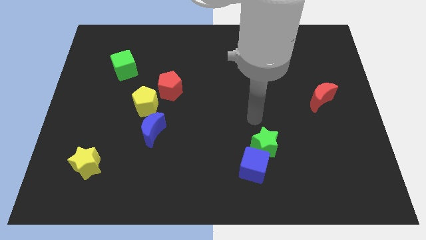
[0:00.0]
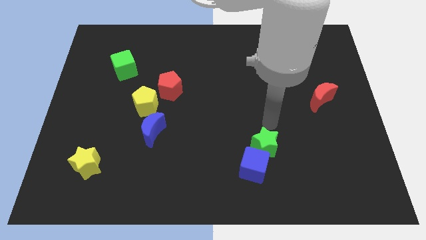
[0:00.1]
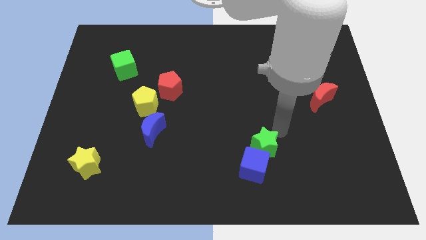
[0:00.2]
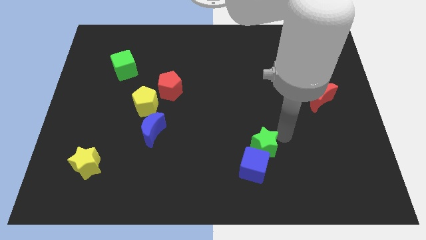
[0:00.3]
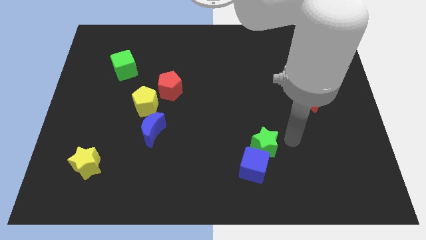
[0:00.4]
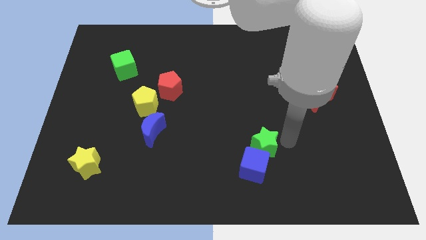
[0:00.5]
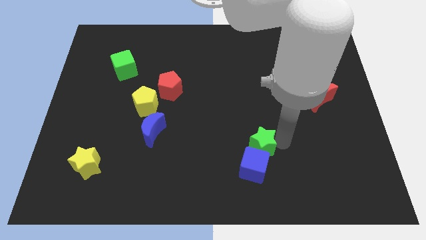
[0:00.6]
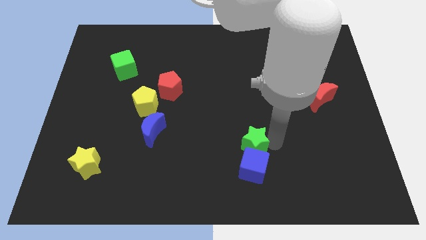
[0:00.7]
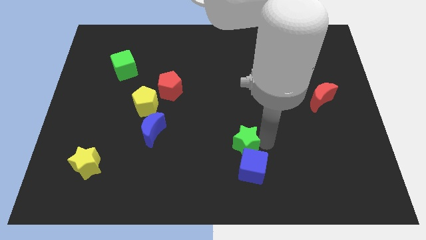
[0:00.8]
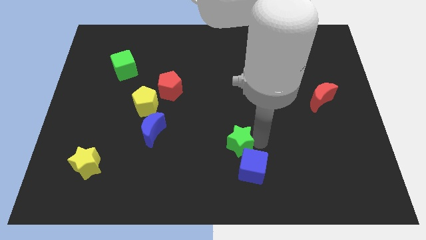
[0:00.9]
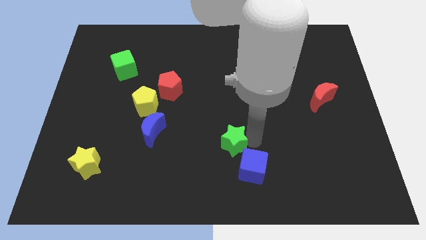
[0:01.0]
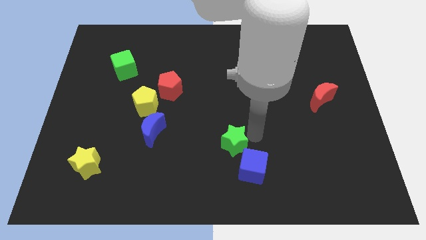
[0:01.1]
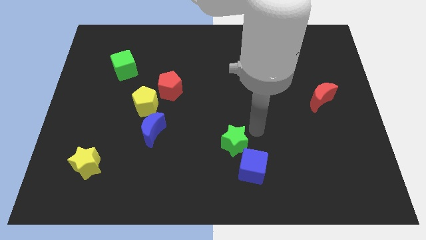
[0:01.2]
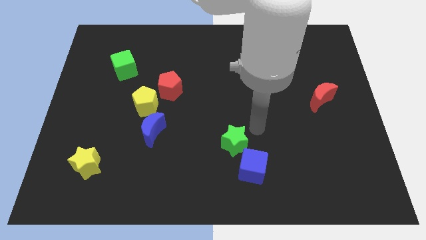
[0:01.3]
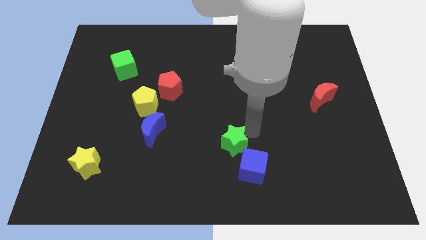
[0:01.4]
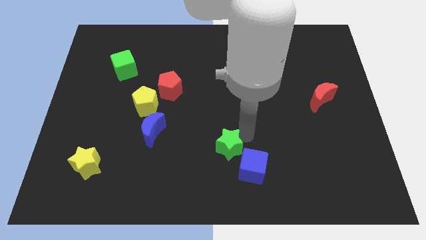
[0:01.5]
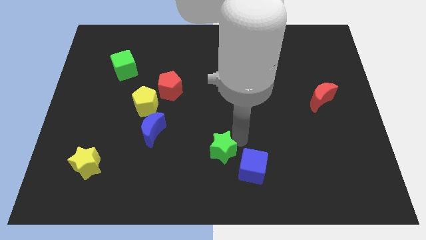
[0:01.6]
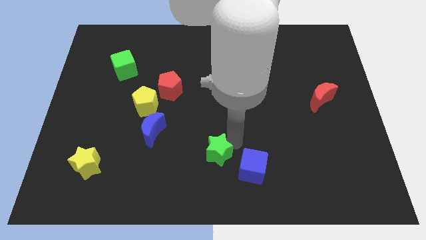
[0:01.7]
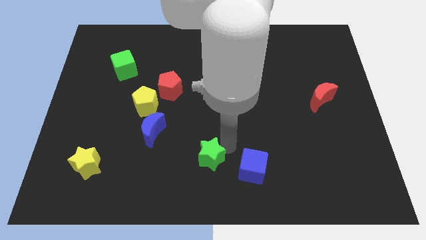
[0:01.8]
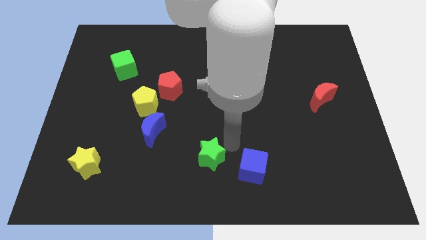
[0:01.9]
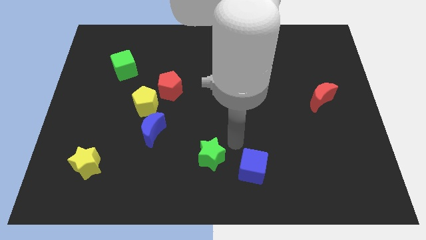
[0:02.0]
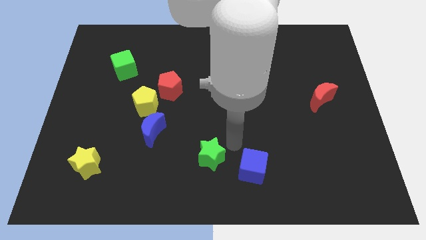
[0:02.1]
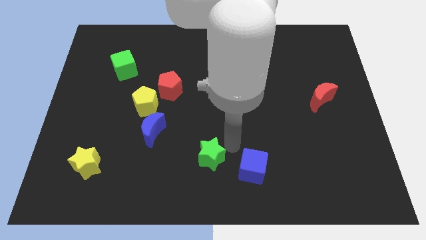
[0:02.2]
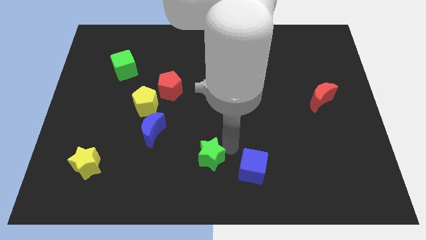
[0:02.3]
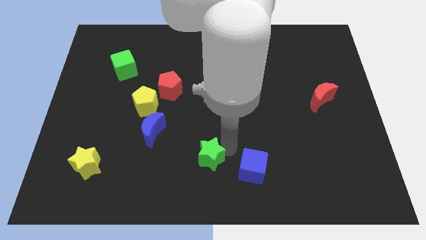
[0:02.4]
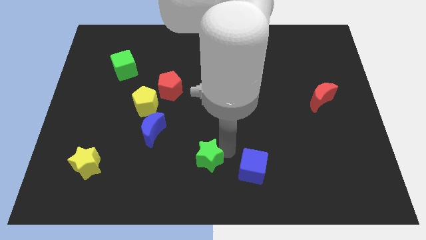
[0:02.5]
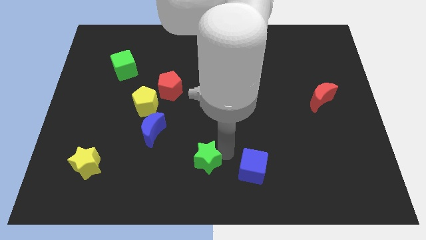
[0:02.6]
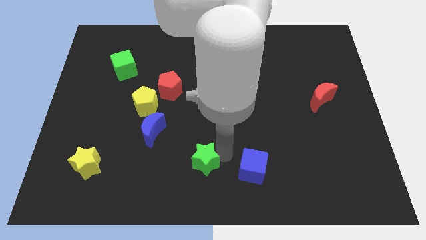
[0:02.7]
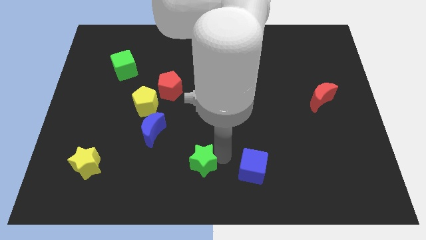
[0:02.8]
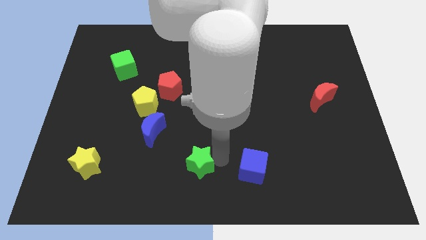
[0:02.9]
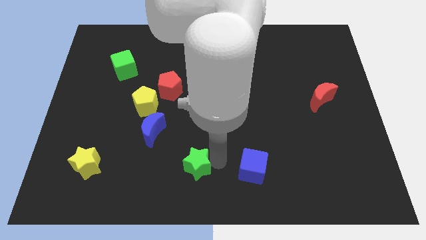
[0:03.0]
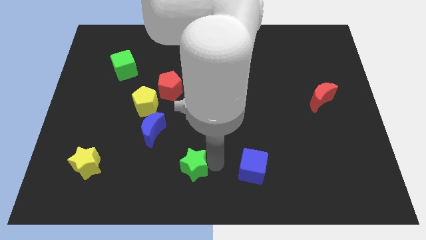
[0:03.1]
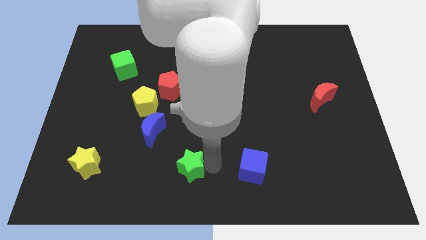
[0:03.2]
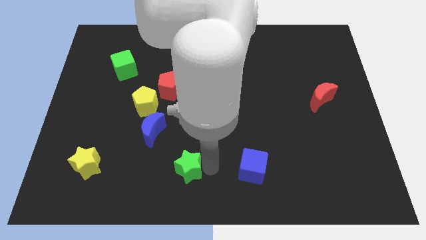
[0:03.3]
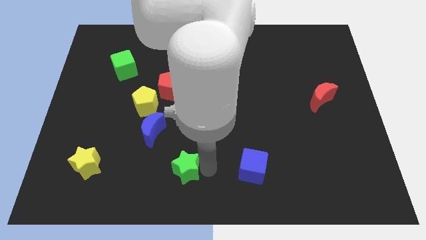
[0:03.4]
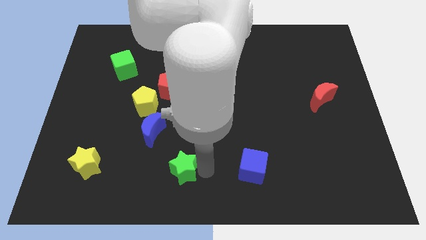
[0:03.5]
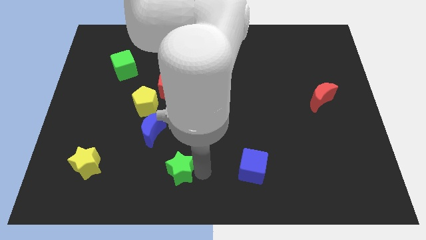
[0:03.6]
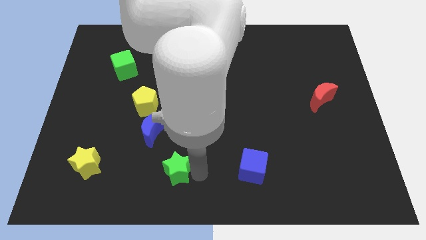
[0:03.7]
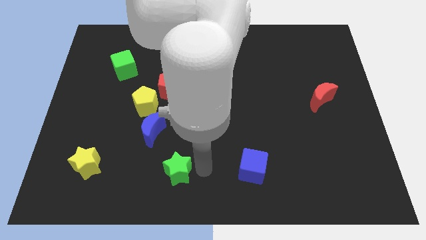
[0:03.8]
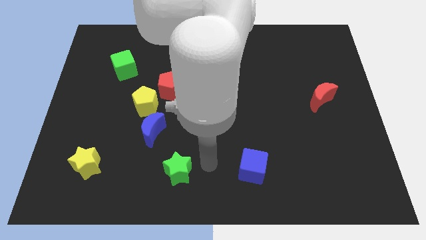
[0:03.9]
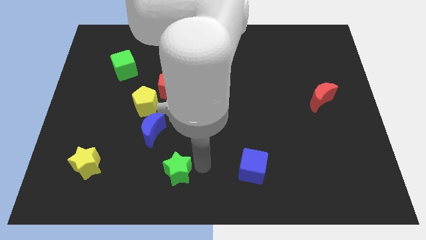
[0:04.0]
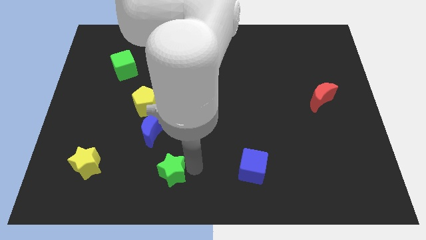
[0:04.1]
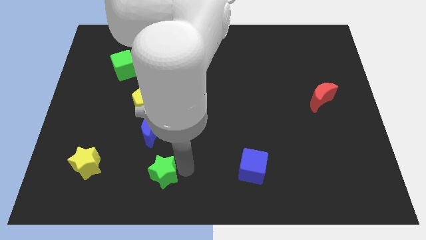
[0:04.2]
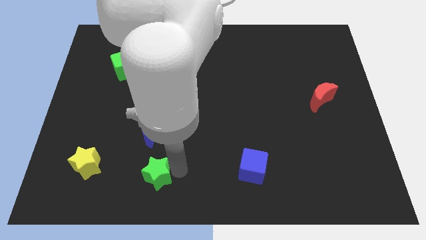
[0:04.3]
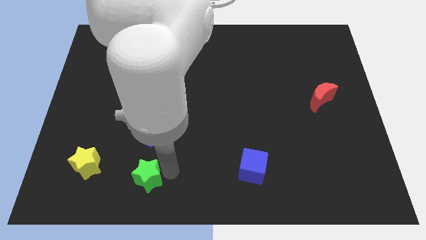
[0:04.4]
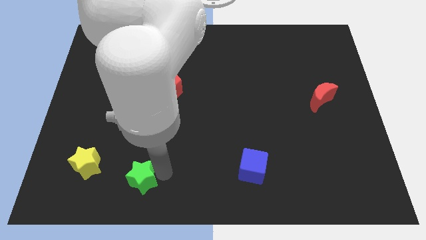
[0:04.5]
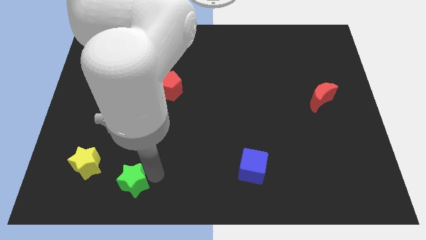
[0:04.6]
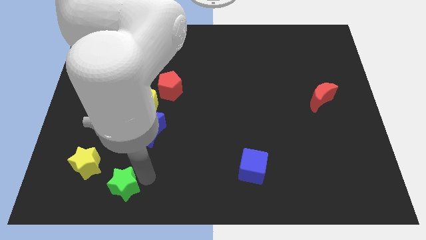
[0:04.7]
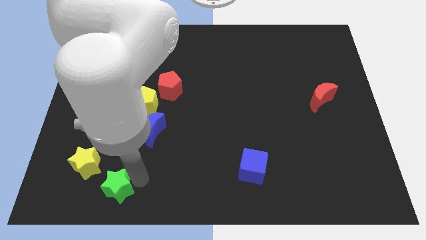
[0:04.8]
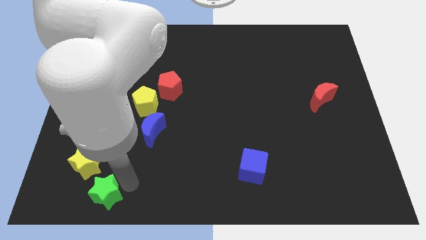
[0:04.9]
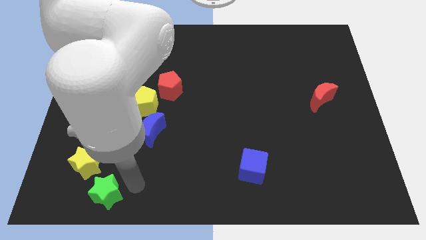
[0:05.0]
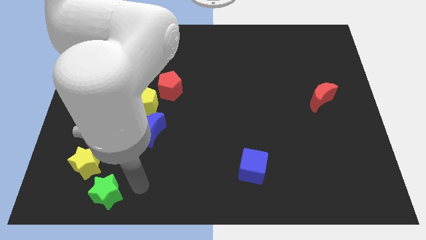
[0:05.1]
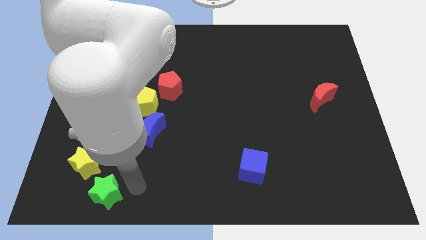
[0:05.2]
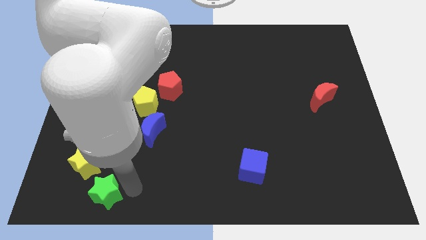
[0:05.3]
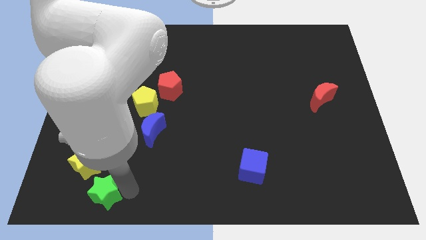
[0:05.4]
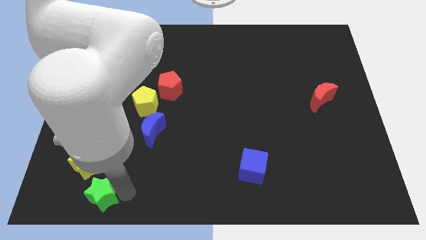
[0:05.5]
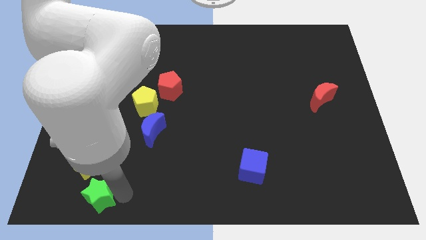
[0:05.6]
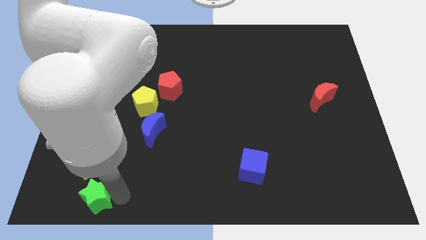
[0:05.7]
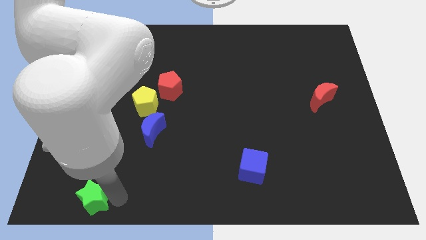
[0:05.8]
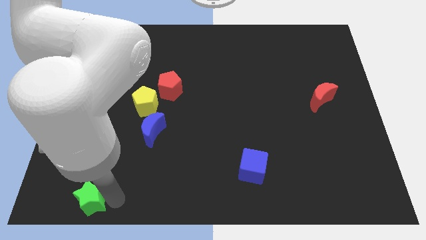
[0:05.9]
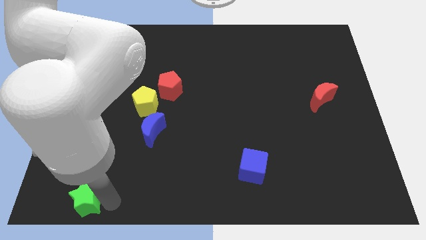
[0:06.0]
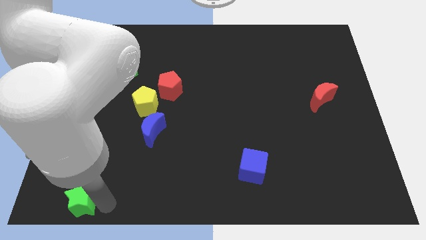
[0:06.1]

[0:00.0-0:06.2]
put the green star to the bottom left corner
